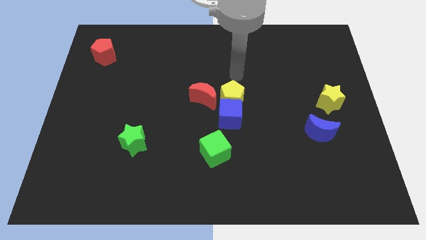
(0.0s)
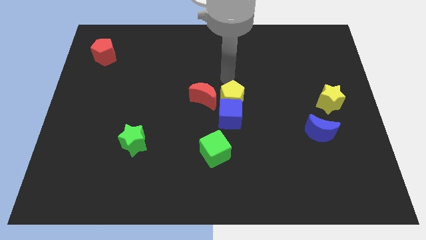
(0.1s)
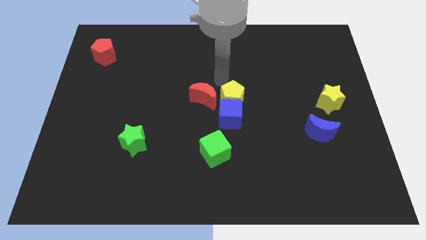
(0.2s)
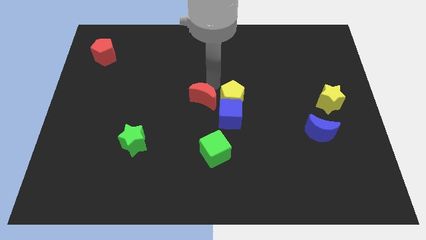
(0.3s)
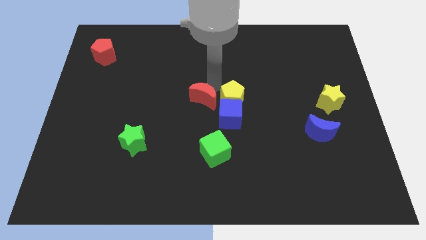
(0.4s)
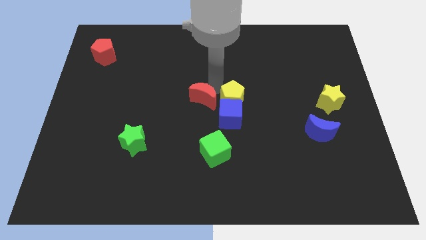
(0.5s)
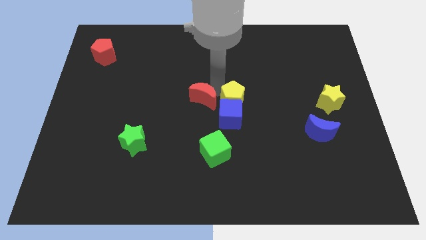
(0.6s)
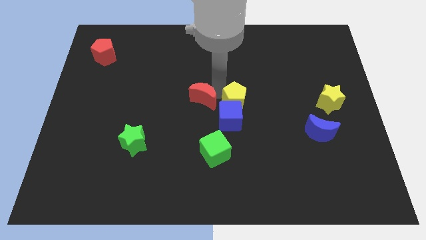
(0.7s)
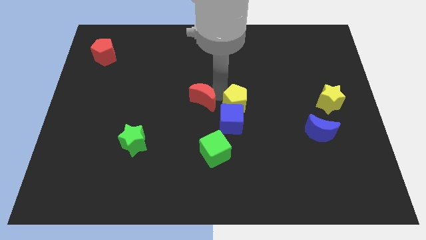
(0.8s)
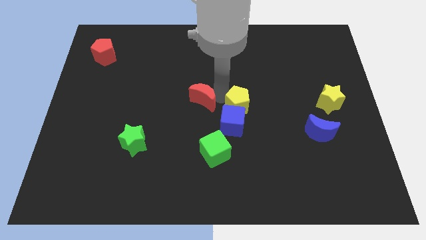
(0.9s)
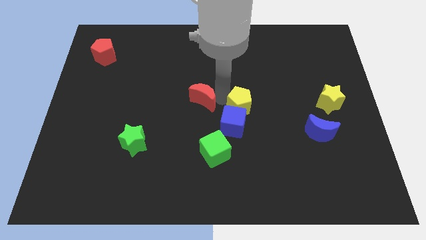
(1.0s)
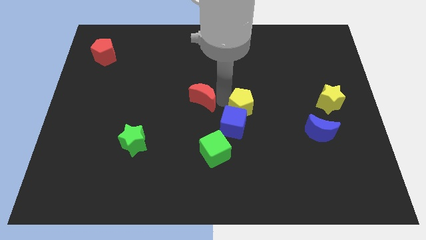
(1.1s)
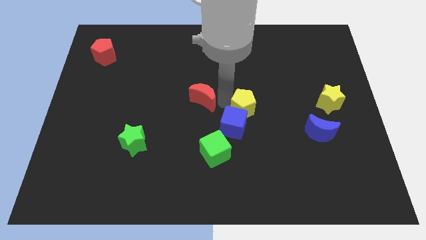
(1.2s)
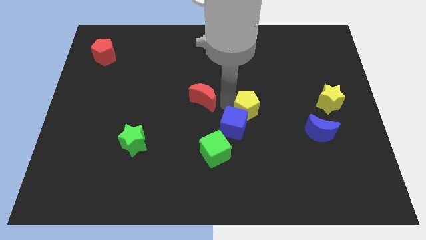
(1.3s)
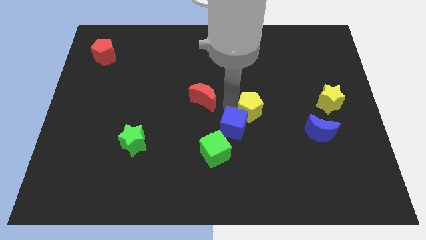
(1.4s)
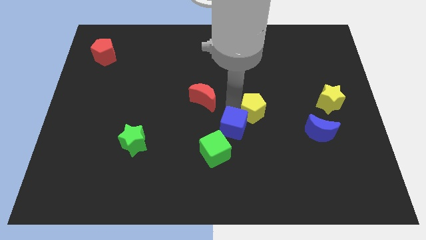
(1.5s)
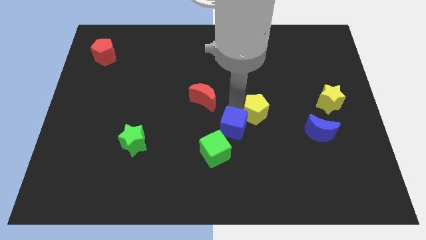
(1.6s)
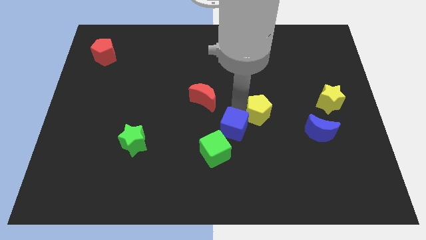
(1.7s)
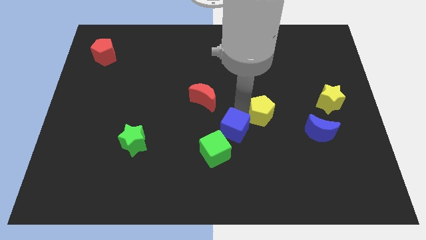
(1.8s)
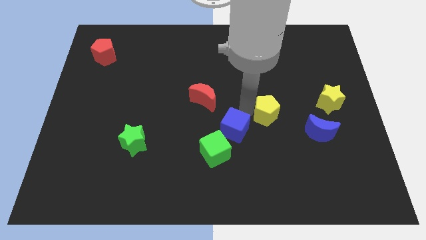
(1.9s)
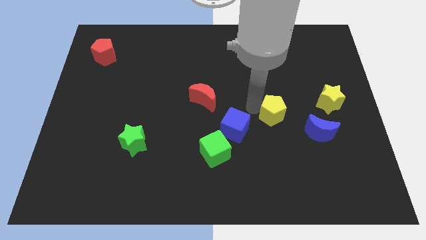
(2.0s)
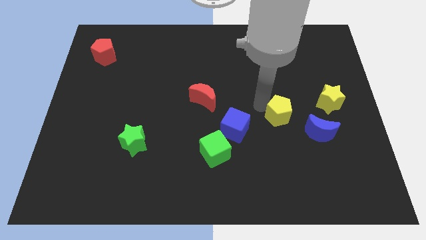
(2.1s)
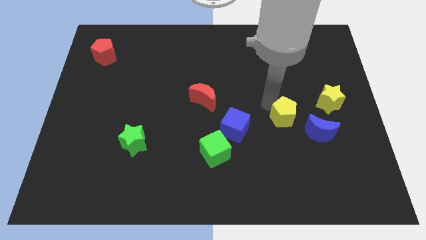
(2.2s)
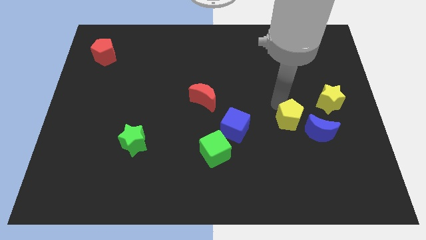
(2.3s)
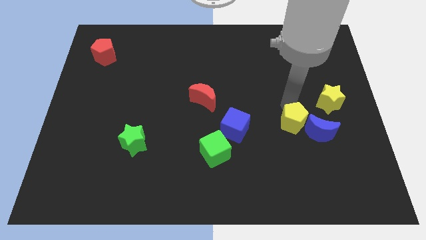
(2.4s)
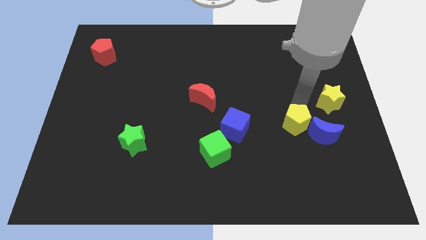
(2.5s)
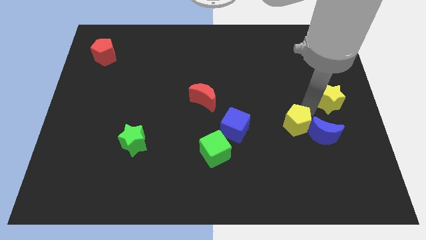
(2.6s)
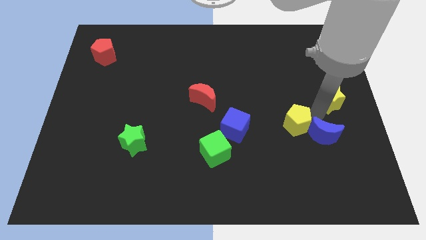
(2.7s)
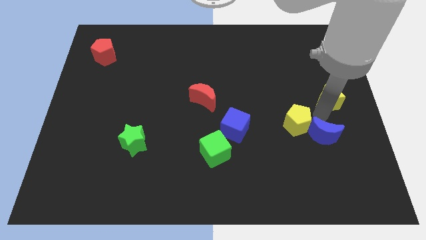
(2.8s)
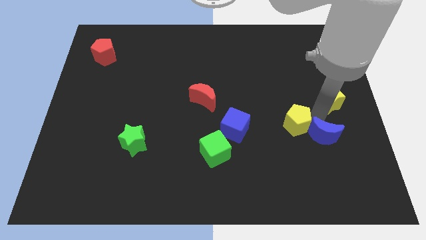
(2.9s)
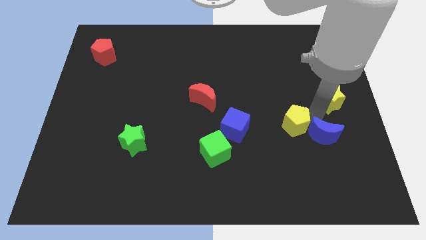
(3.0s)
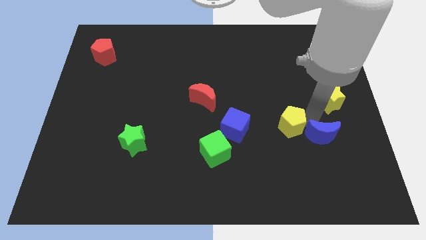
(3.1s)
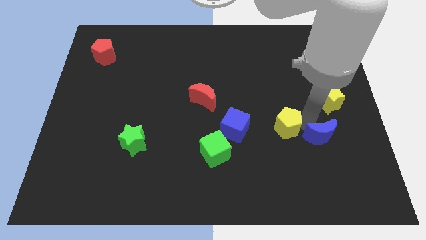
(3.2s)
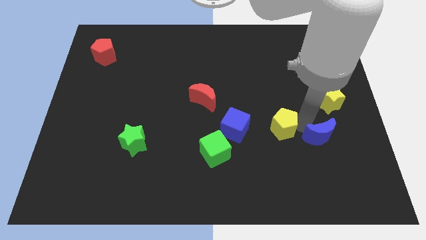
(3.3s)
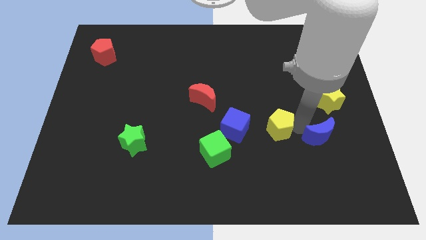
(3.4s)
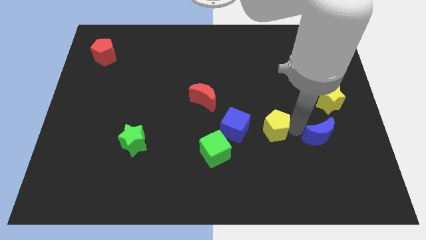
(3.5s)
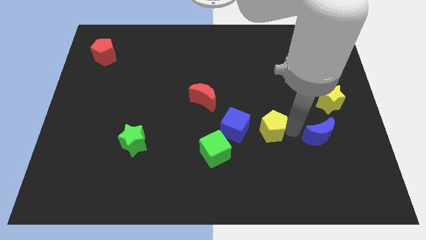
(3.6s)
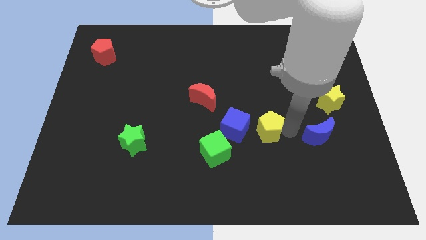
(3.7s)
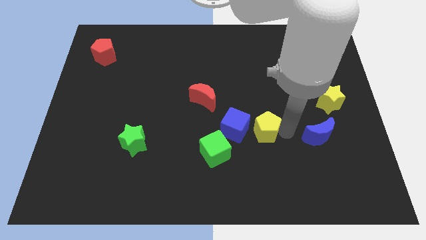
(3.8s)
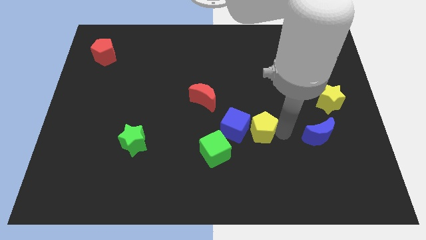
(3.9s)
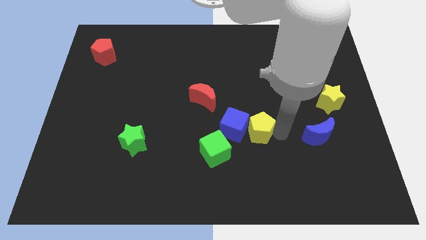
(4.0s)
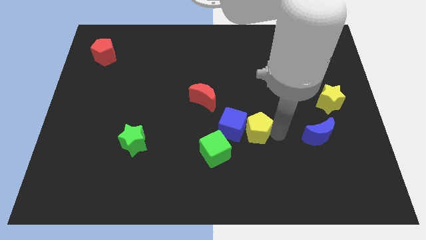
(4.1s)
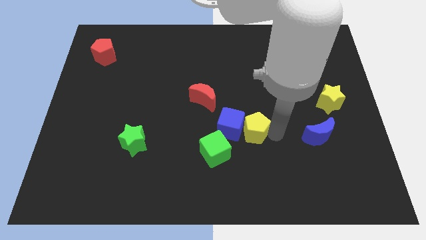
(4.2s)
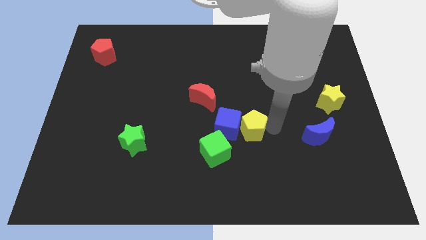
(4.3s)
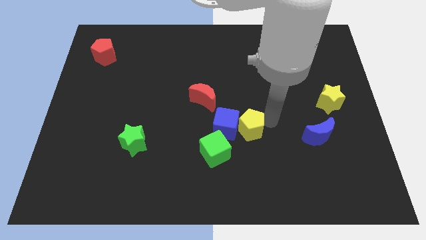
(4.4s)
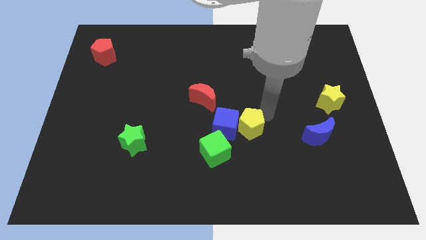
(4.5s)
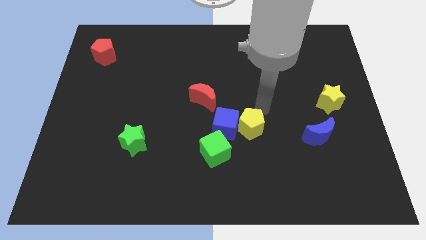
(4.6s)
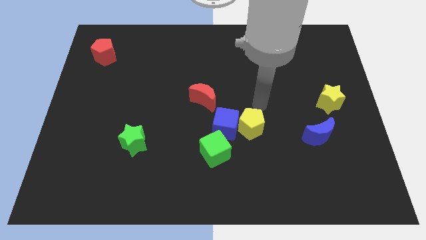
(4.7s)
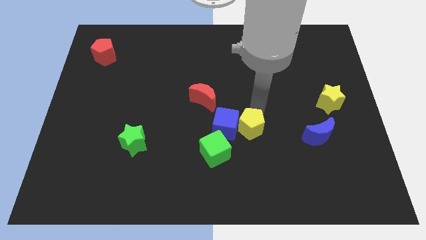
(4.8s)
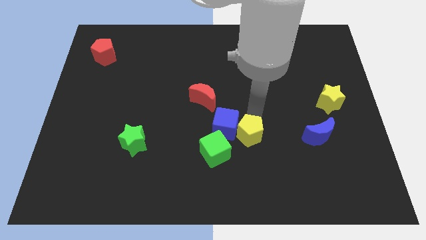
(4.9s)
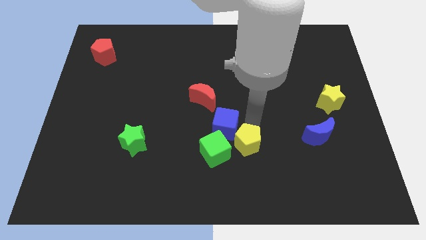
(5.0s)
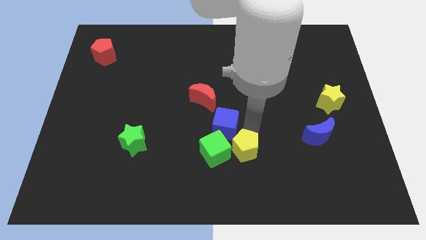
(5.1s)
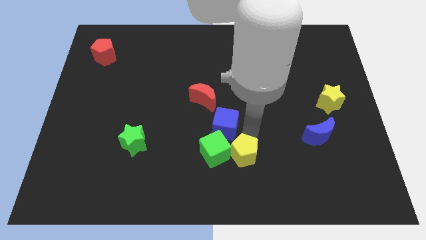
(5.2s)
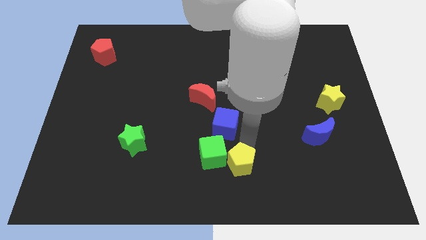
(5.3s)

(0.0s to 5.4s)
slide the yellow pentagon to the bottom side

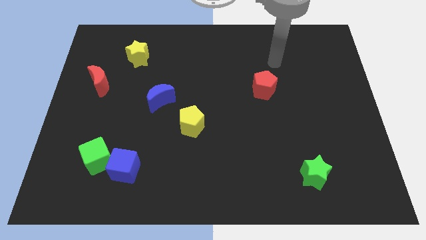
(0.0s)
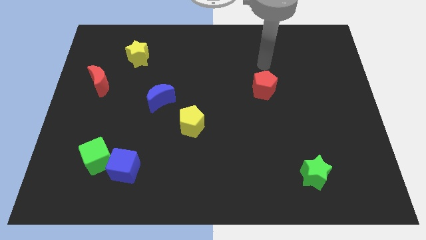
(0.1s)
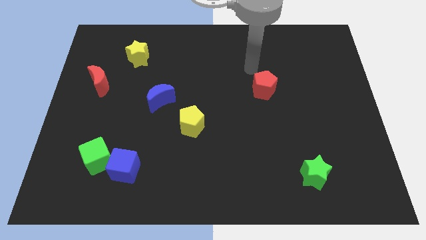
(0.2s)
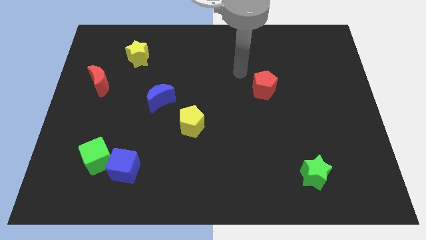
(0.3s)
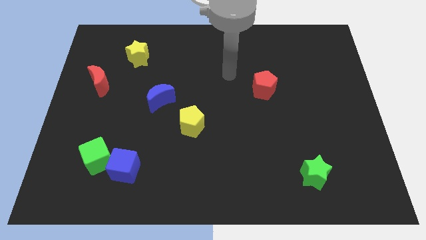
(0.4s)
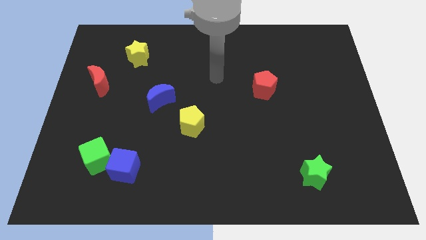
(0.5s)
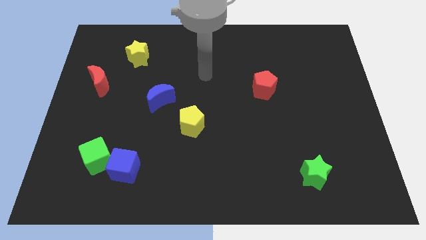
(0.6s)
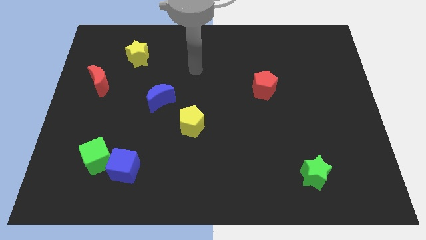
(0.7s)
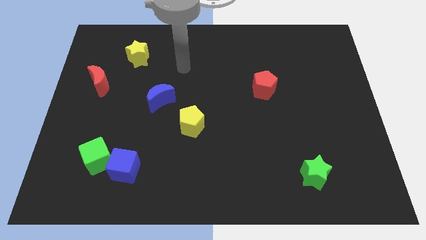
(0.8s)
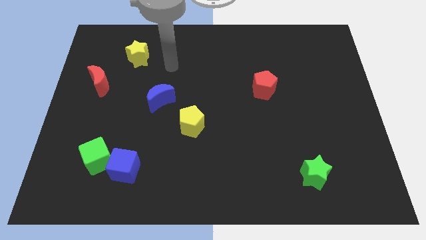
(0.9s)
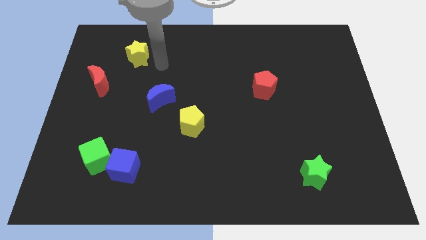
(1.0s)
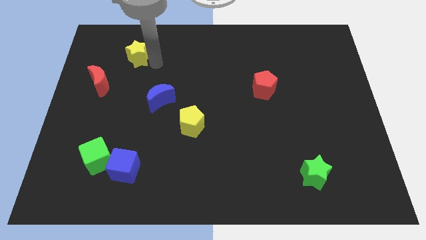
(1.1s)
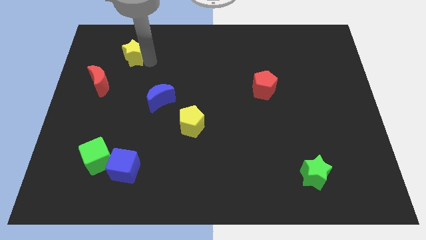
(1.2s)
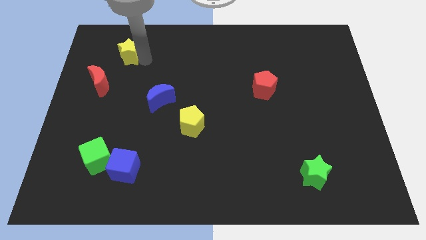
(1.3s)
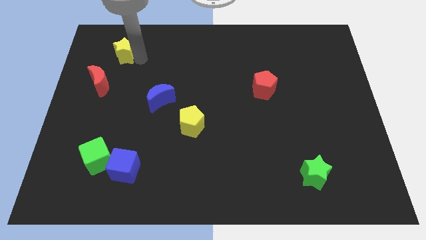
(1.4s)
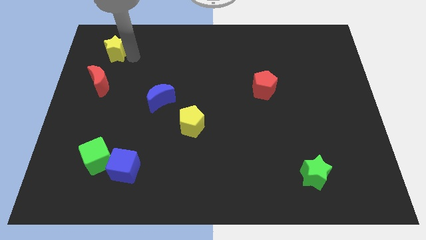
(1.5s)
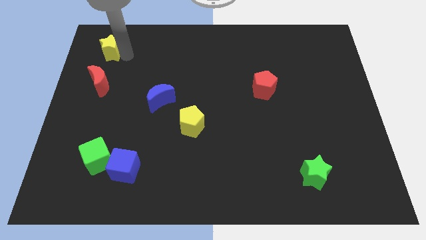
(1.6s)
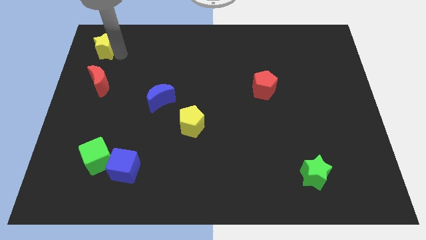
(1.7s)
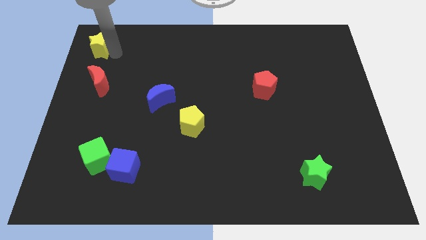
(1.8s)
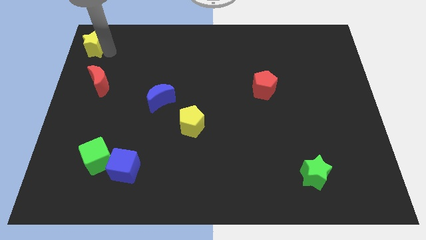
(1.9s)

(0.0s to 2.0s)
move the yellow star to the upper left corner
